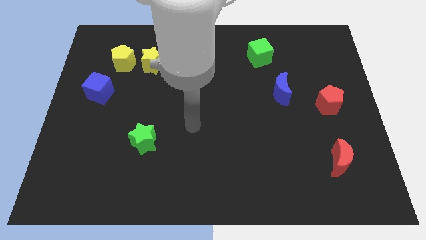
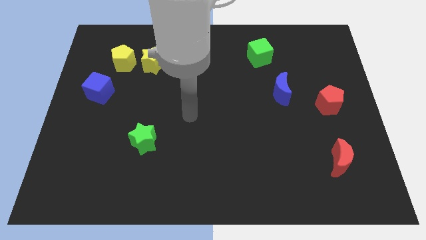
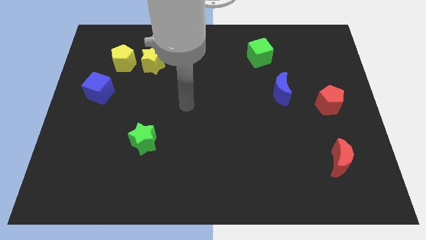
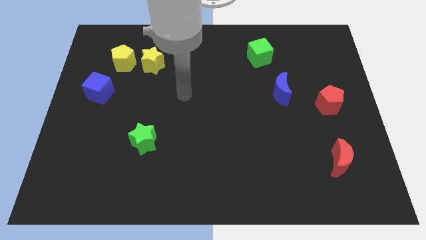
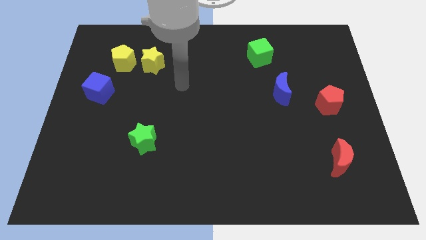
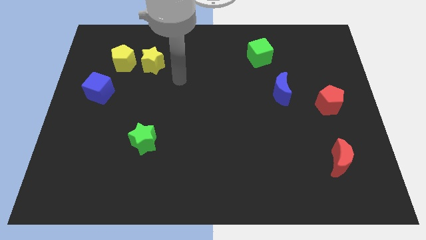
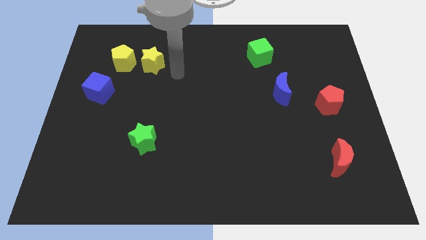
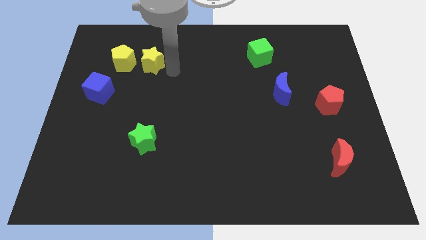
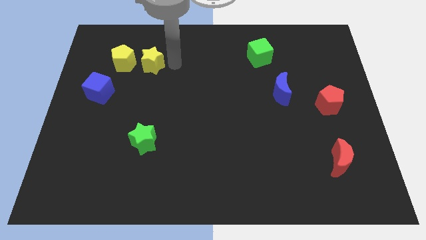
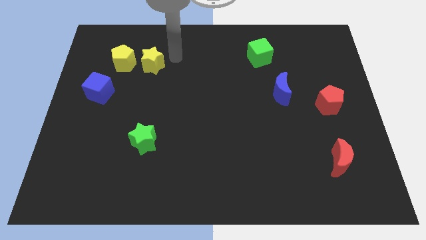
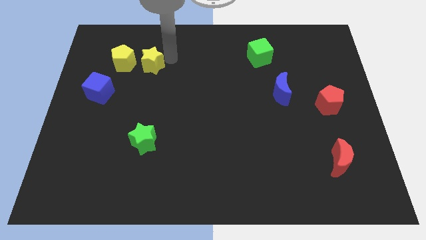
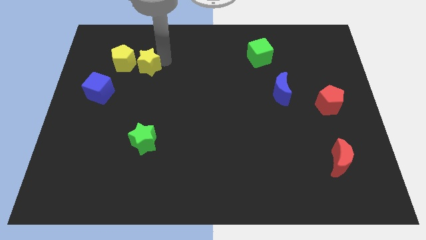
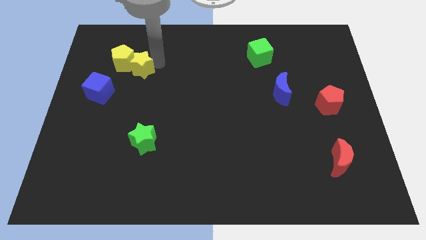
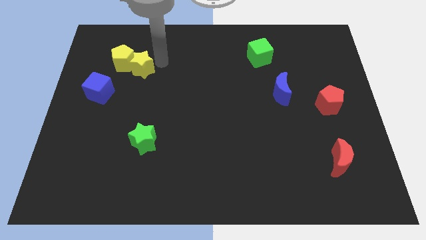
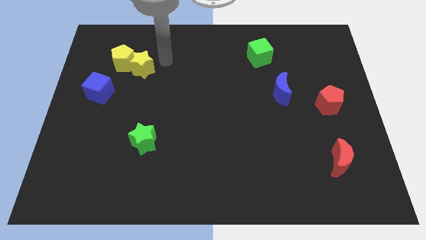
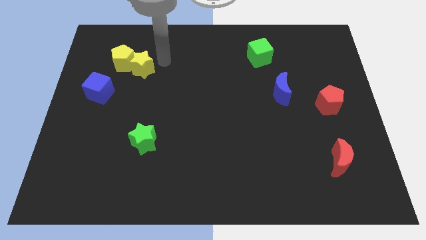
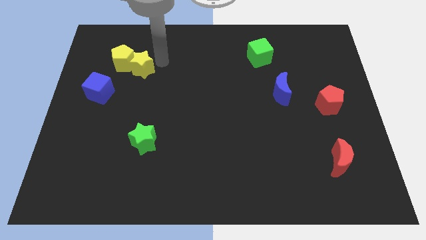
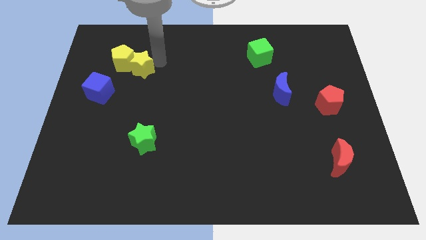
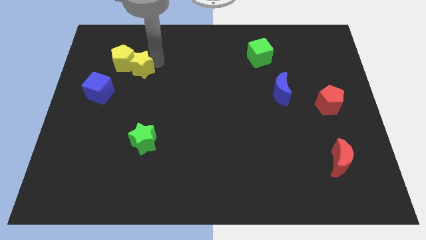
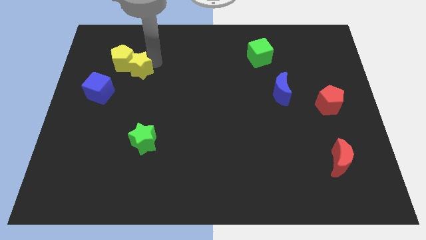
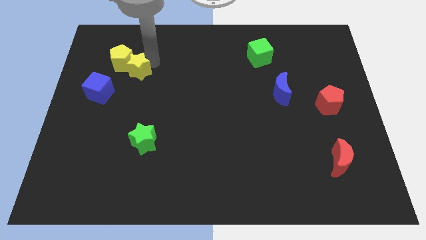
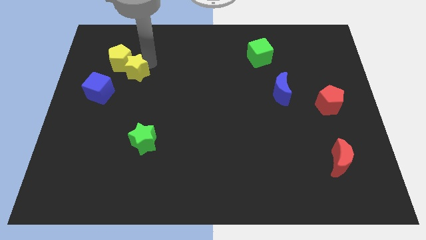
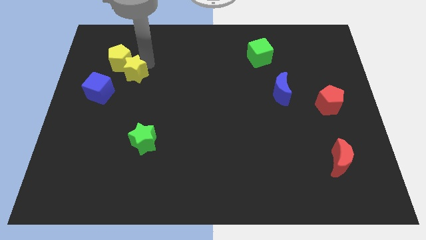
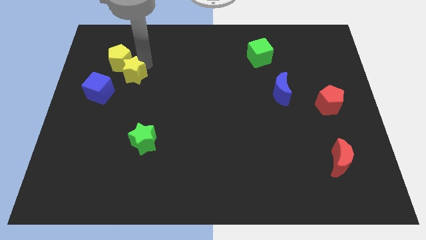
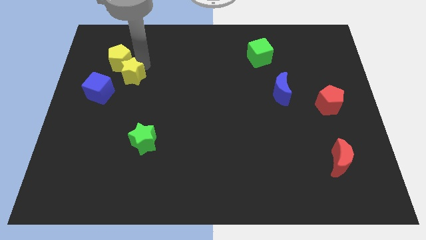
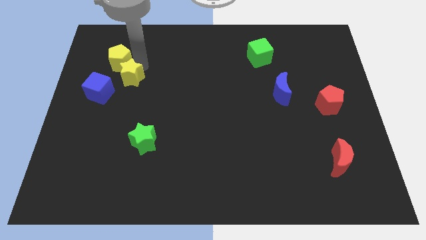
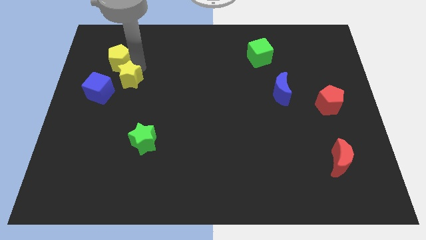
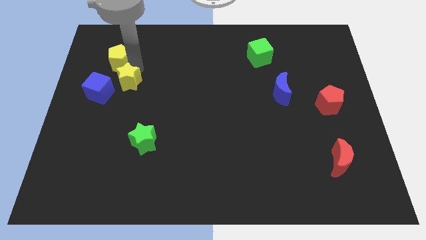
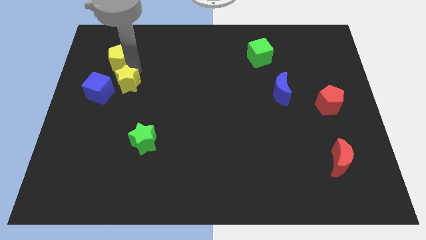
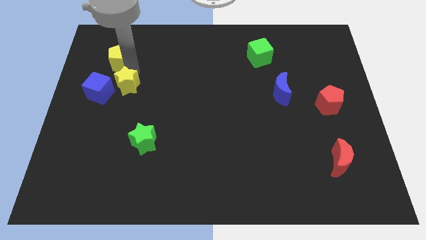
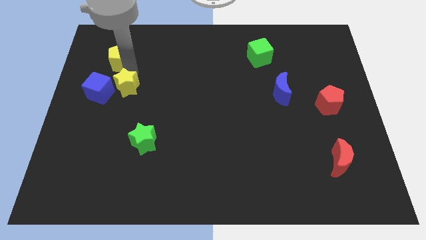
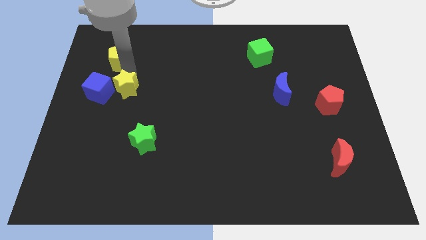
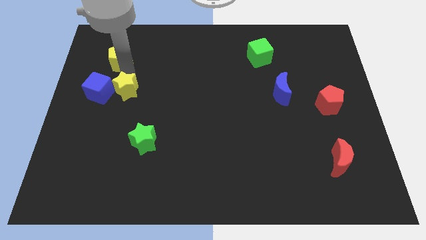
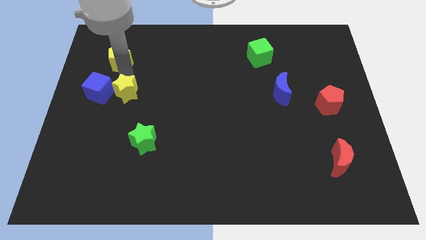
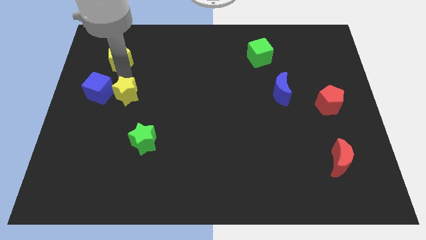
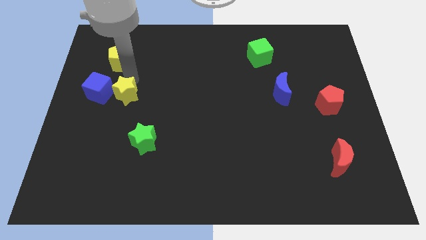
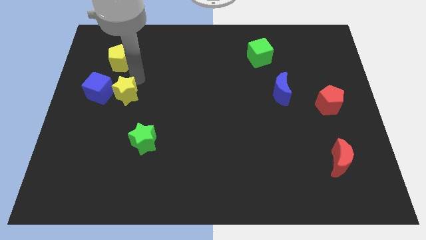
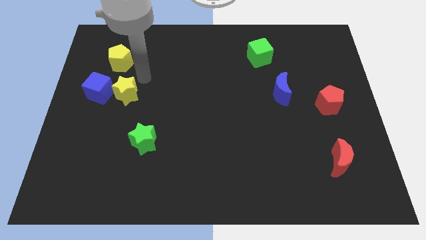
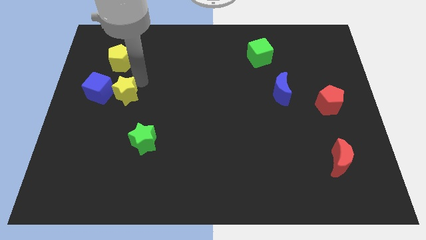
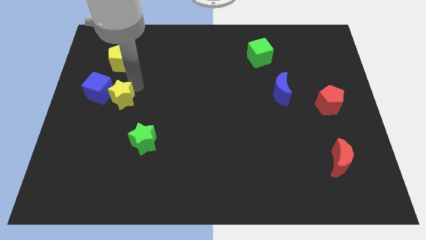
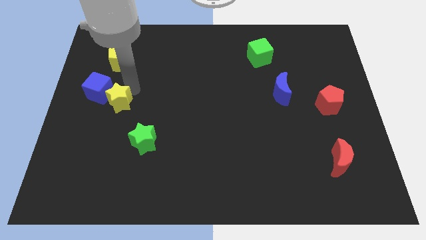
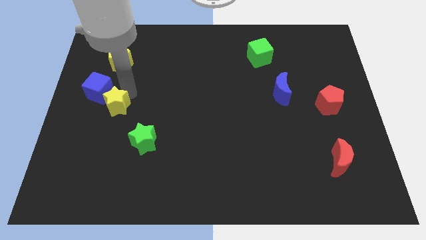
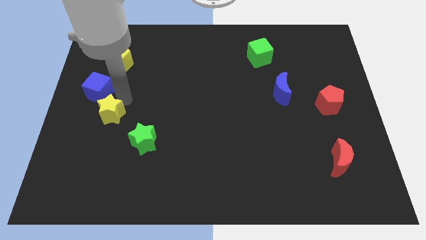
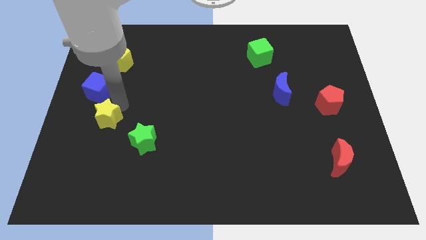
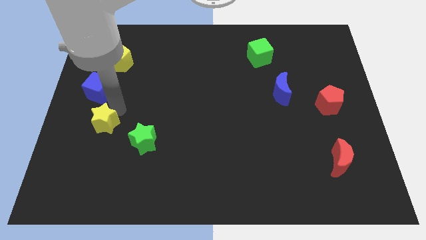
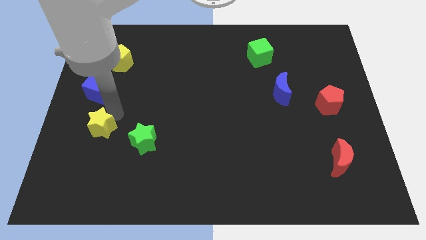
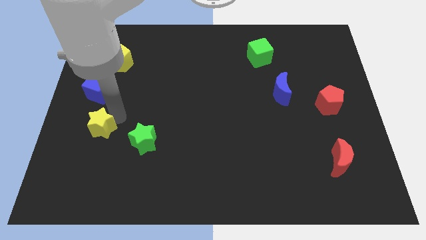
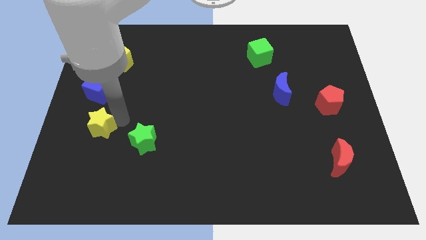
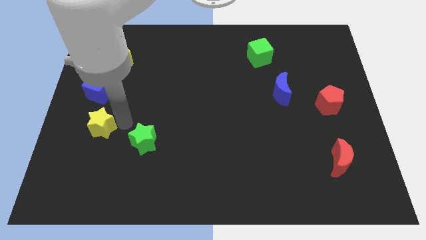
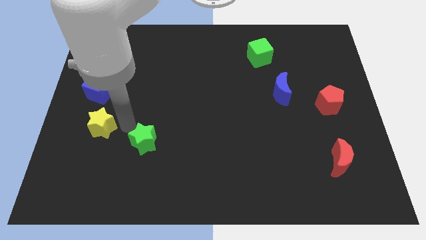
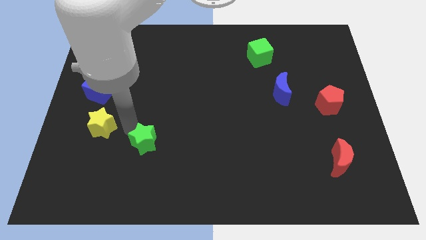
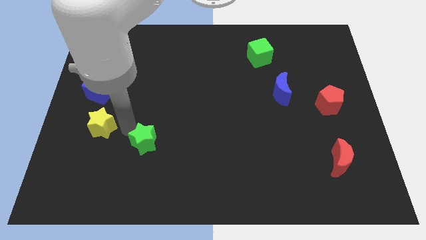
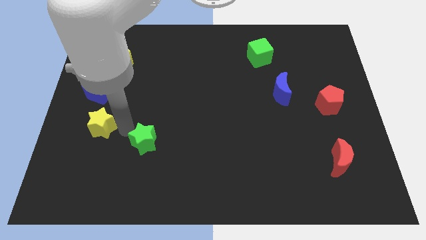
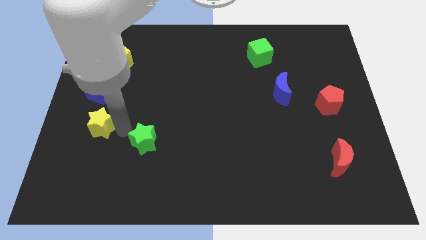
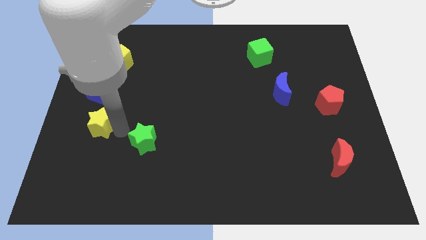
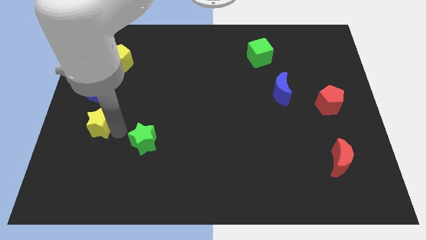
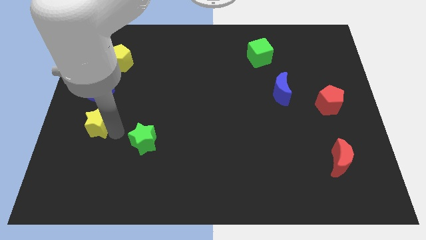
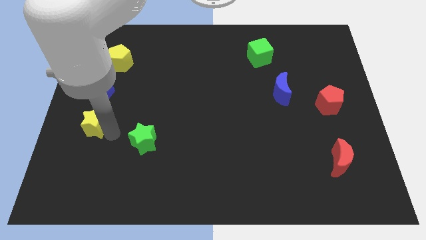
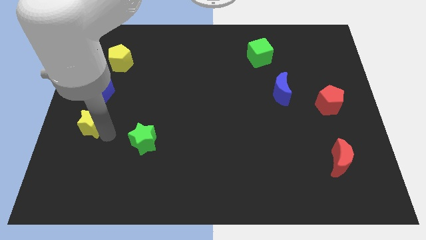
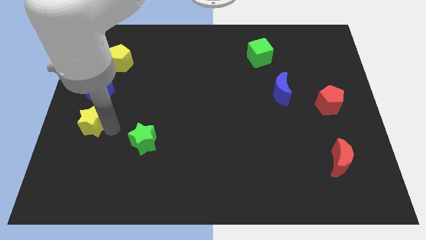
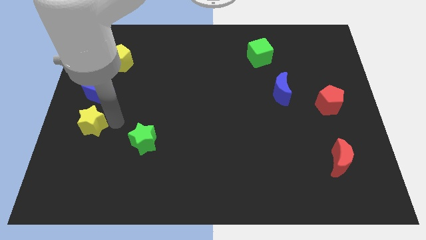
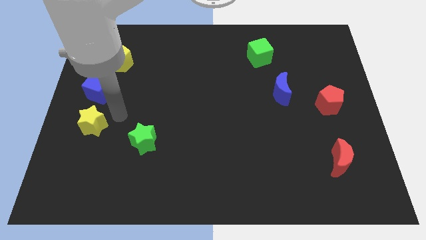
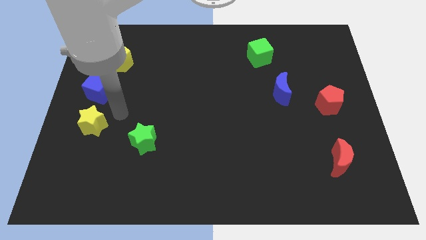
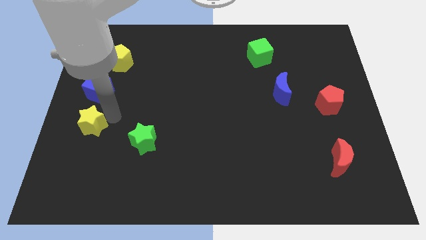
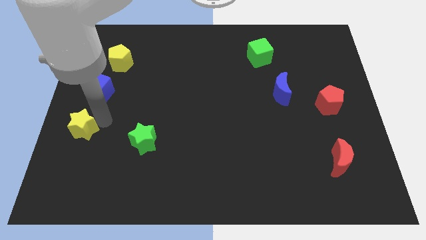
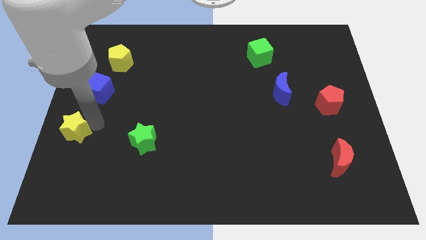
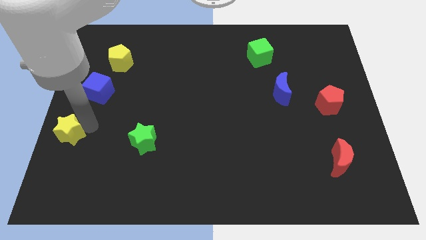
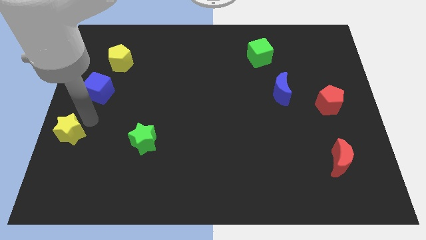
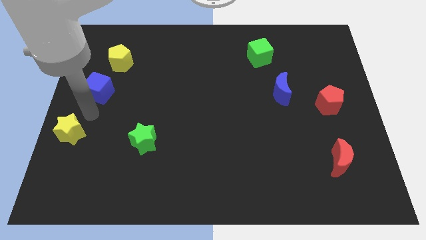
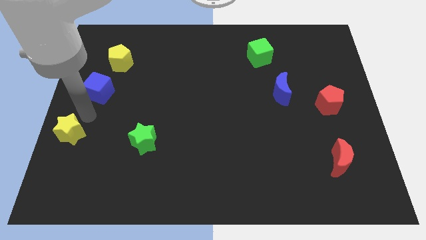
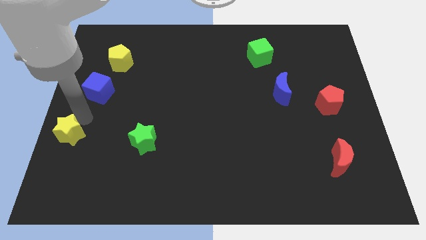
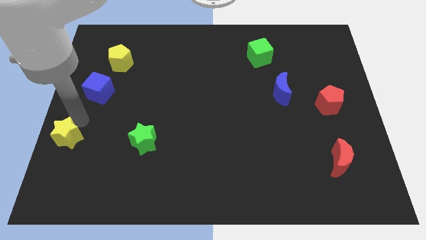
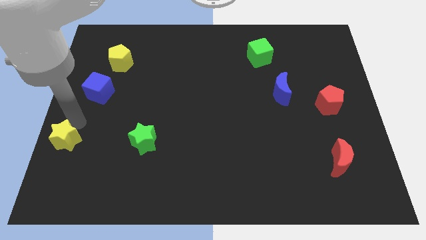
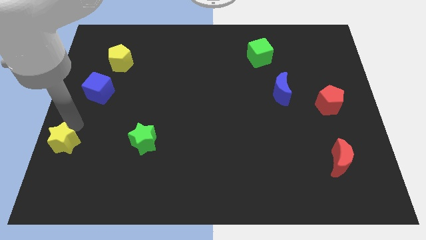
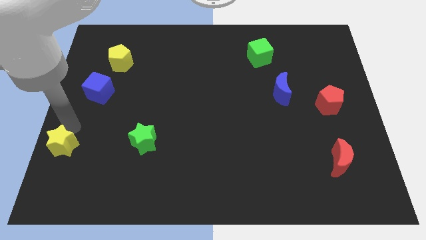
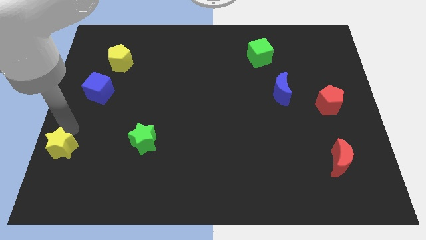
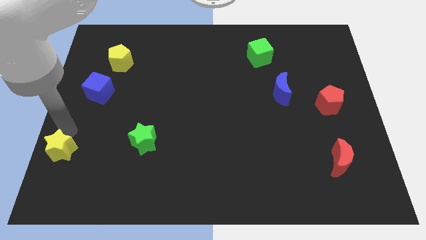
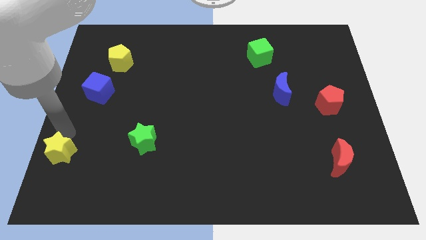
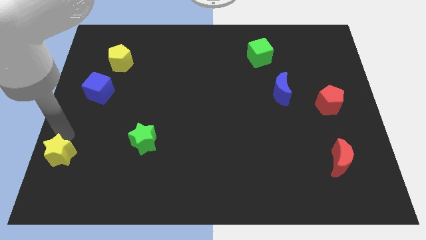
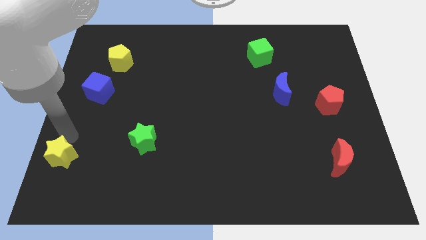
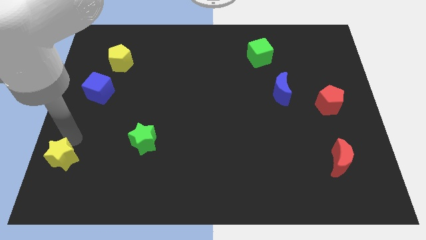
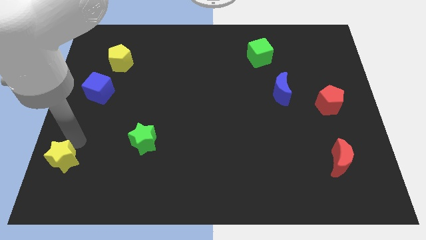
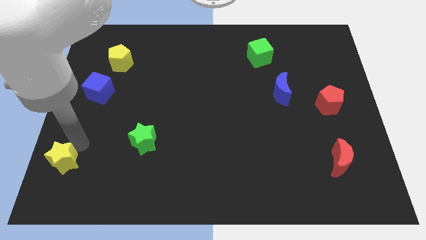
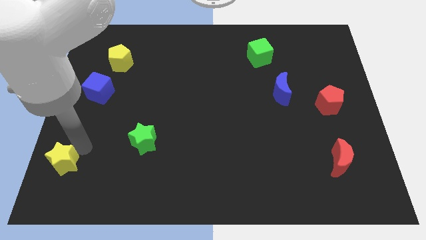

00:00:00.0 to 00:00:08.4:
put the yellow star to the bottom left
